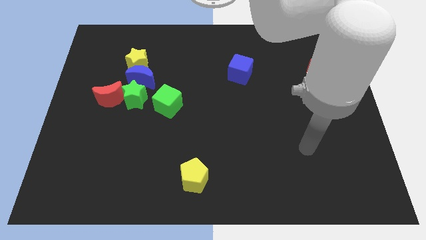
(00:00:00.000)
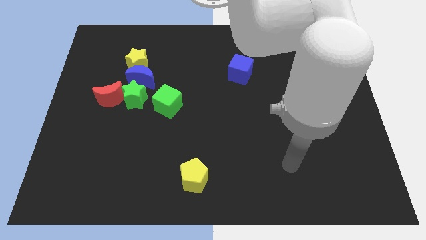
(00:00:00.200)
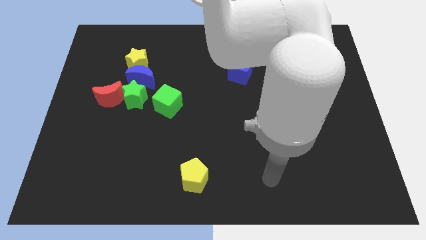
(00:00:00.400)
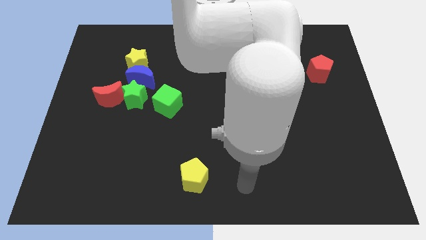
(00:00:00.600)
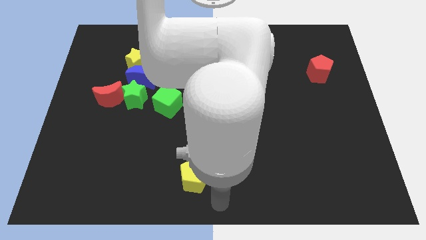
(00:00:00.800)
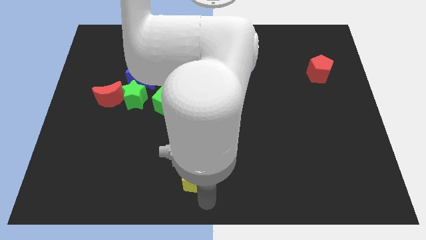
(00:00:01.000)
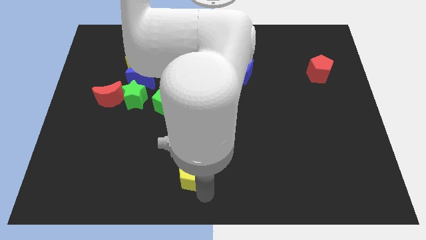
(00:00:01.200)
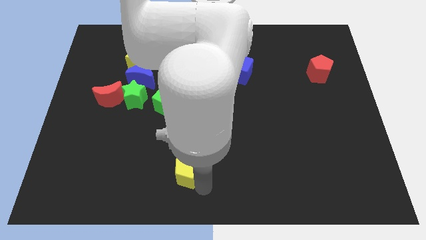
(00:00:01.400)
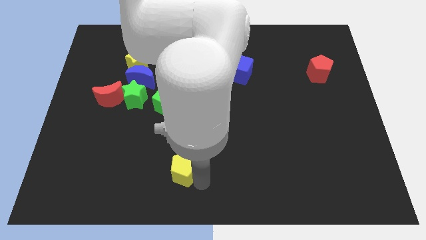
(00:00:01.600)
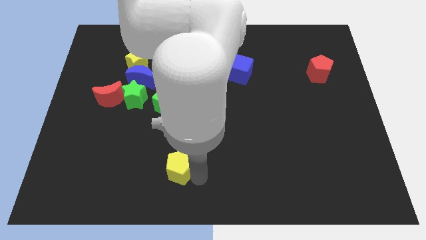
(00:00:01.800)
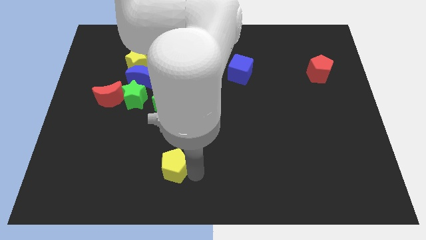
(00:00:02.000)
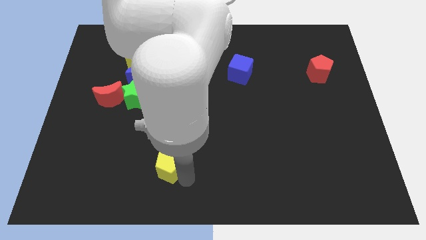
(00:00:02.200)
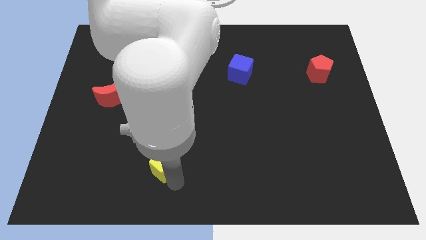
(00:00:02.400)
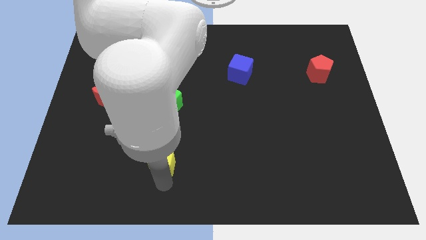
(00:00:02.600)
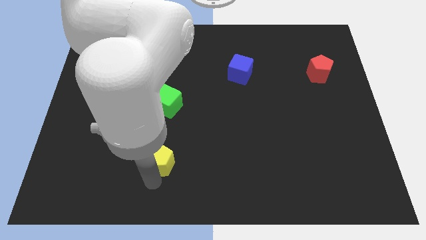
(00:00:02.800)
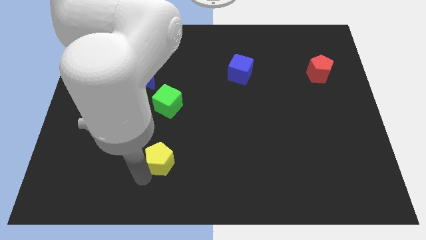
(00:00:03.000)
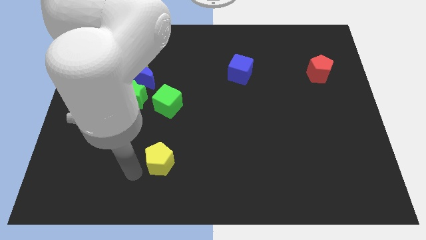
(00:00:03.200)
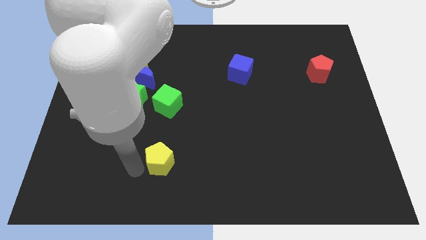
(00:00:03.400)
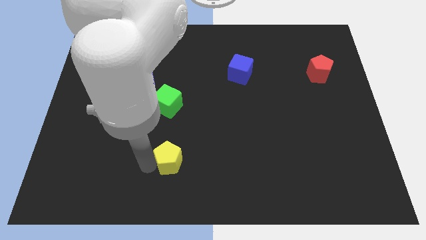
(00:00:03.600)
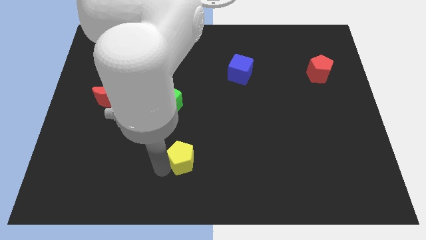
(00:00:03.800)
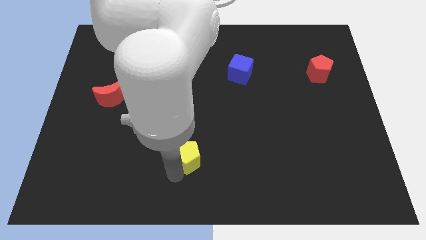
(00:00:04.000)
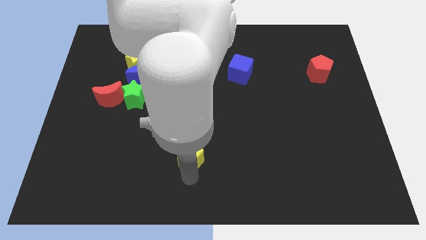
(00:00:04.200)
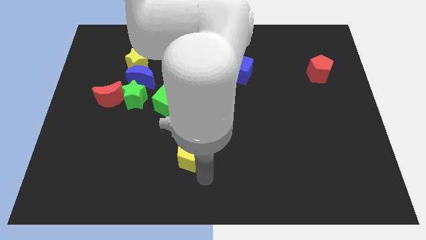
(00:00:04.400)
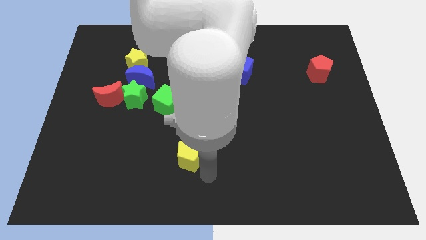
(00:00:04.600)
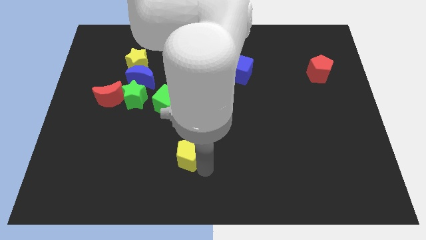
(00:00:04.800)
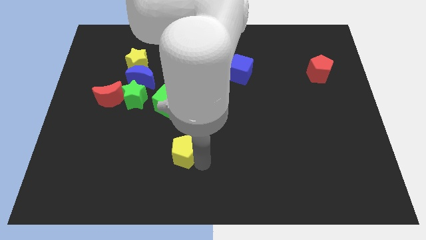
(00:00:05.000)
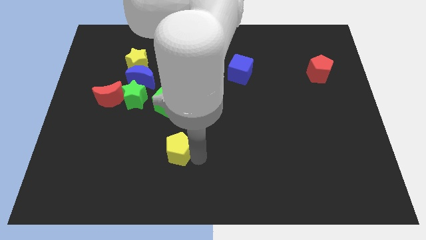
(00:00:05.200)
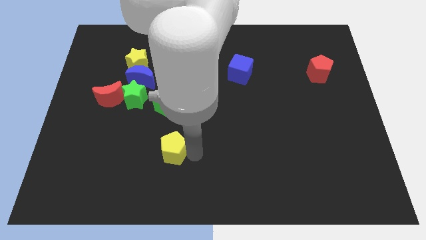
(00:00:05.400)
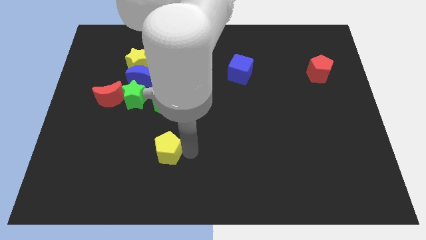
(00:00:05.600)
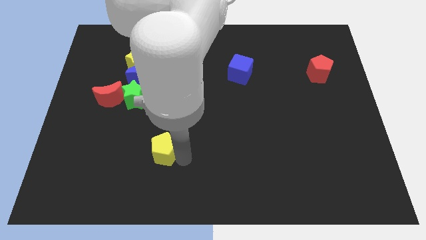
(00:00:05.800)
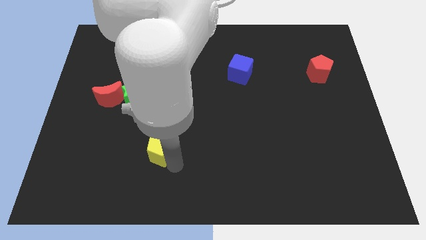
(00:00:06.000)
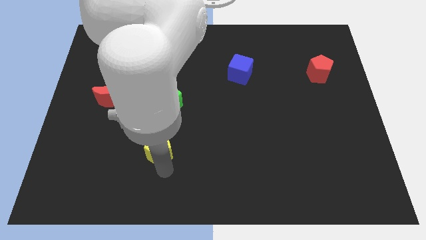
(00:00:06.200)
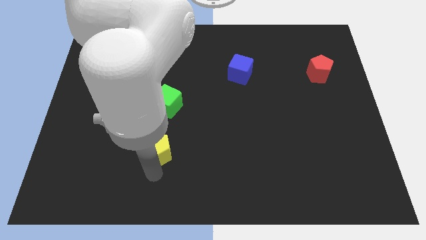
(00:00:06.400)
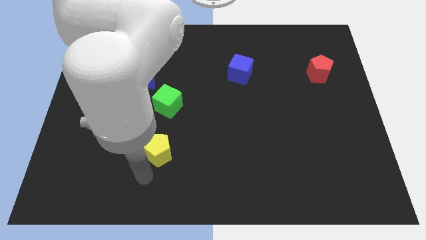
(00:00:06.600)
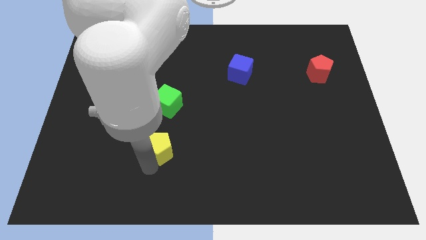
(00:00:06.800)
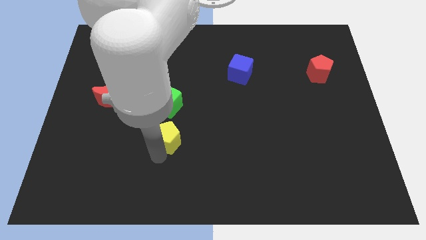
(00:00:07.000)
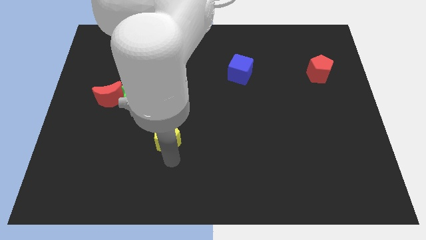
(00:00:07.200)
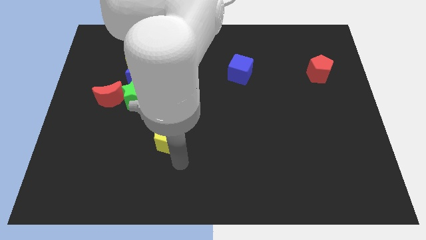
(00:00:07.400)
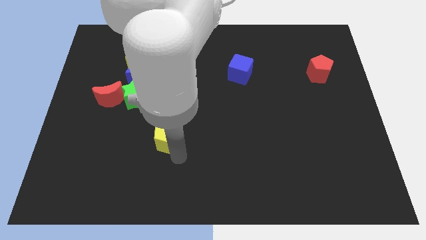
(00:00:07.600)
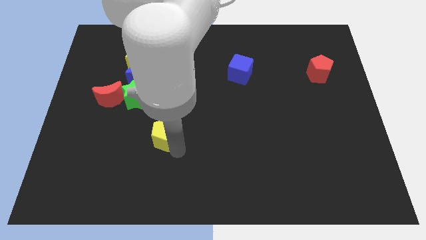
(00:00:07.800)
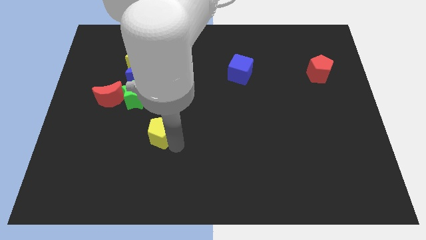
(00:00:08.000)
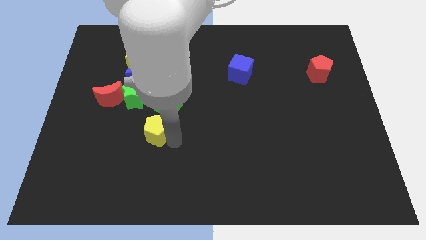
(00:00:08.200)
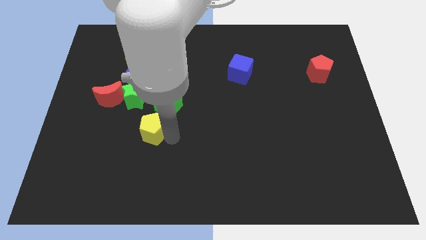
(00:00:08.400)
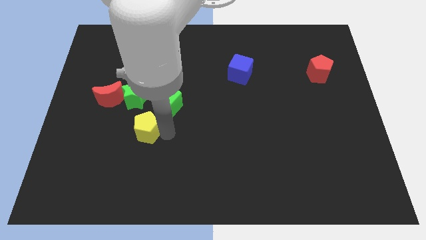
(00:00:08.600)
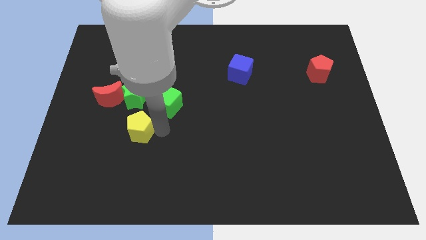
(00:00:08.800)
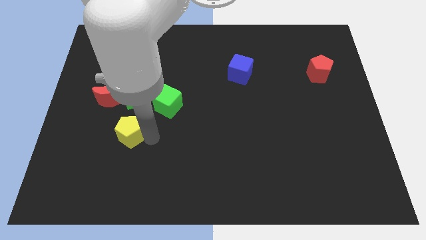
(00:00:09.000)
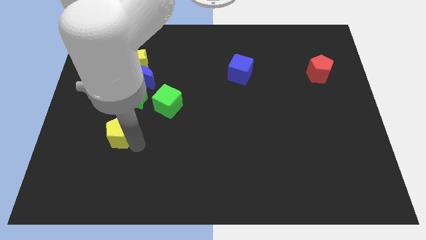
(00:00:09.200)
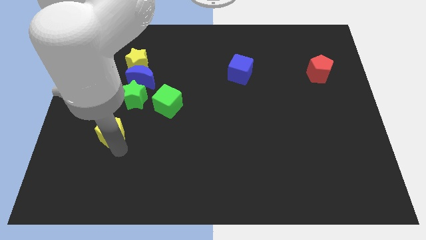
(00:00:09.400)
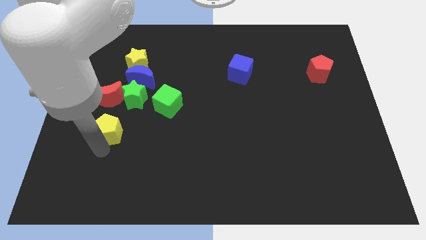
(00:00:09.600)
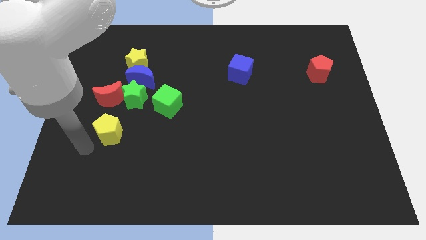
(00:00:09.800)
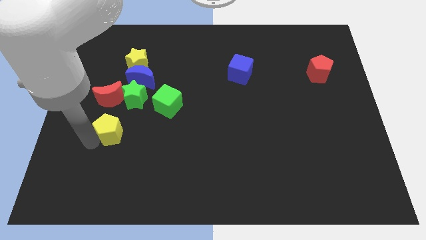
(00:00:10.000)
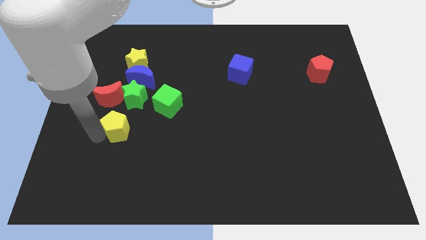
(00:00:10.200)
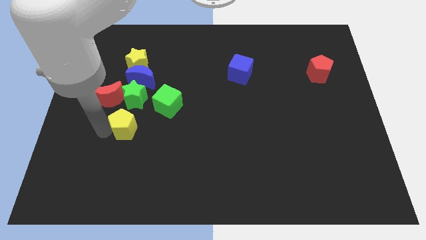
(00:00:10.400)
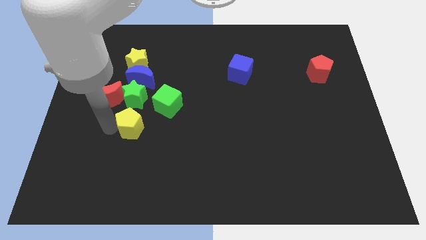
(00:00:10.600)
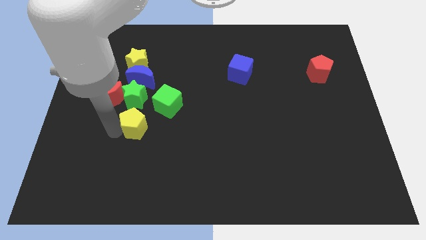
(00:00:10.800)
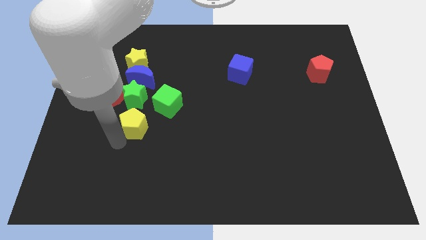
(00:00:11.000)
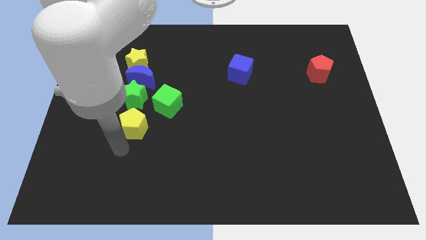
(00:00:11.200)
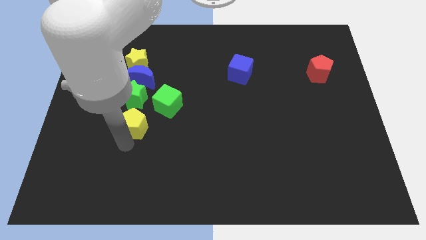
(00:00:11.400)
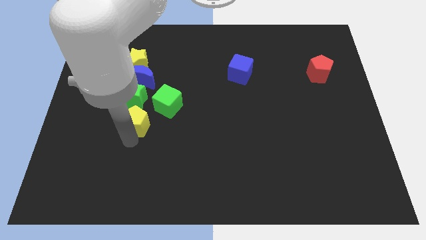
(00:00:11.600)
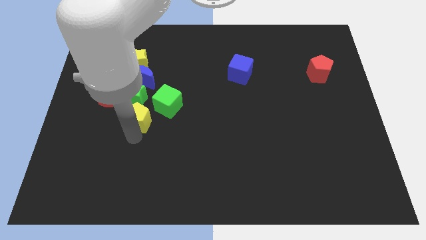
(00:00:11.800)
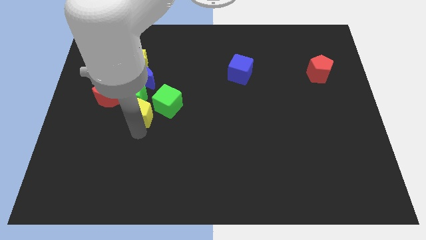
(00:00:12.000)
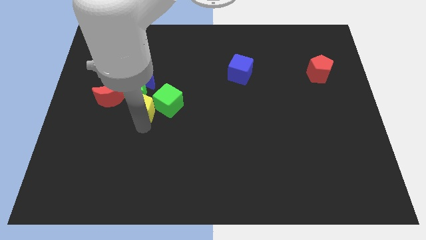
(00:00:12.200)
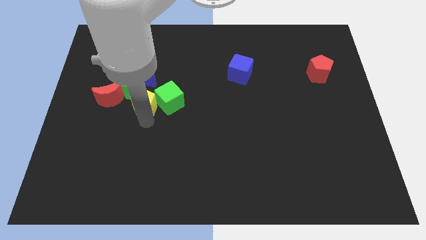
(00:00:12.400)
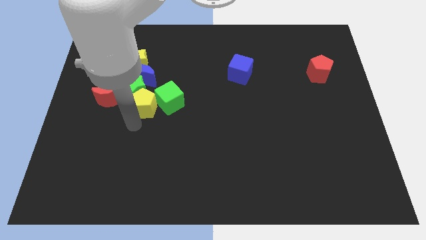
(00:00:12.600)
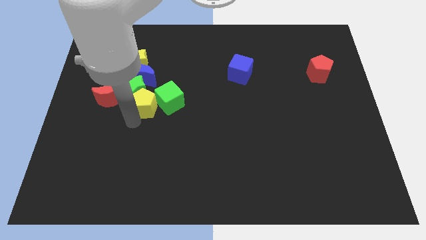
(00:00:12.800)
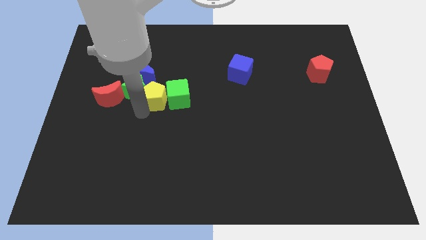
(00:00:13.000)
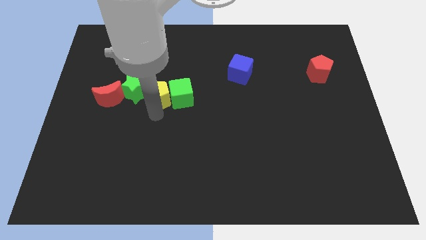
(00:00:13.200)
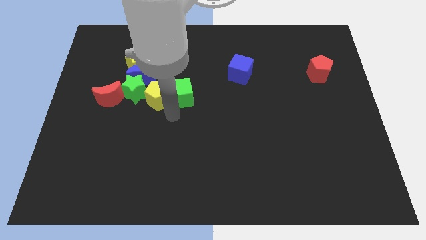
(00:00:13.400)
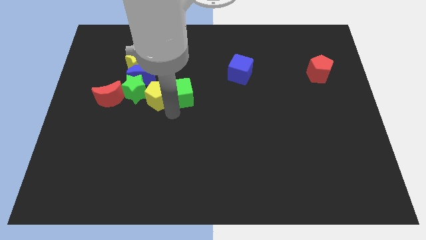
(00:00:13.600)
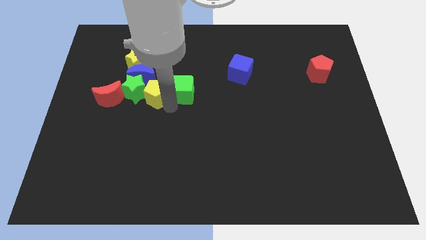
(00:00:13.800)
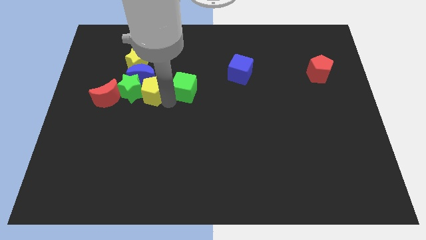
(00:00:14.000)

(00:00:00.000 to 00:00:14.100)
move the yellow pentagon close to the blue moon

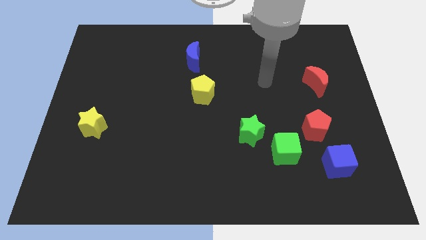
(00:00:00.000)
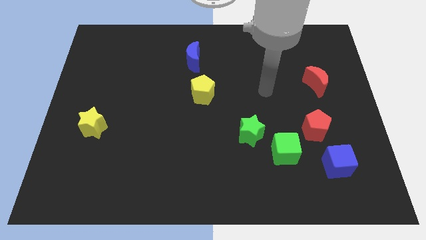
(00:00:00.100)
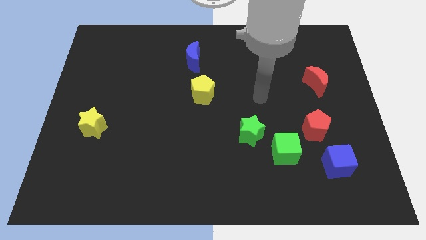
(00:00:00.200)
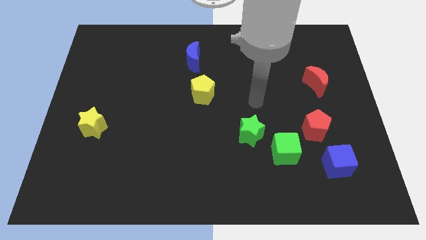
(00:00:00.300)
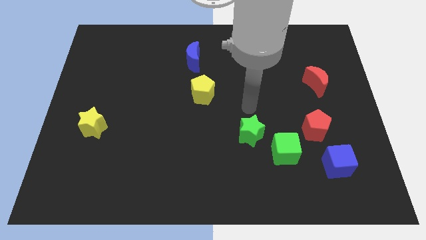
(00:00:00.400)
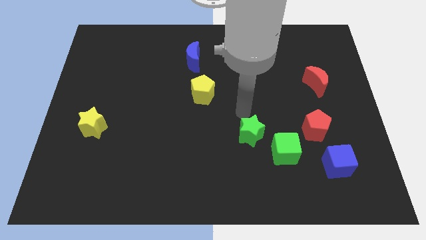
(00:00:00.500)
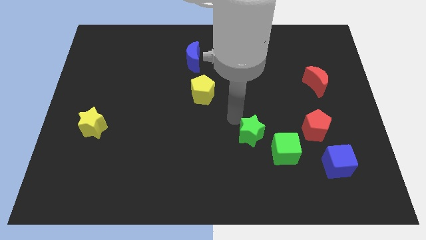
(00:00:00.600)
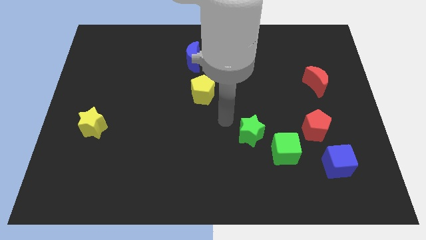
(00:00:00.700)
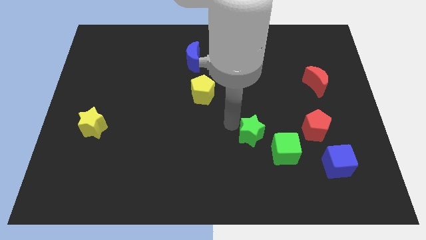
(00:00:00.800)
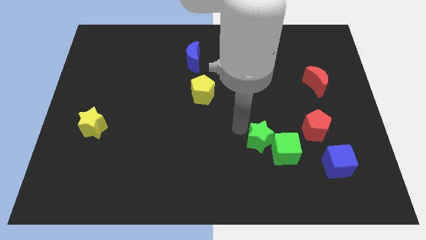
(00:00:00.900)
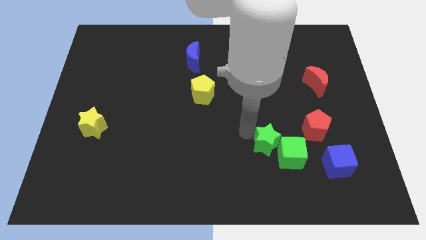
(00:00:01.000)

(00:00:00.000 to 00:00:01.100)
slide the green star to the green cube
